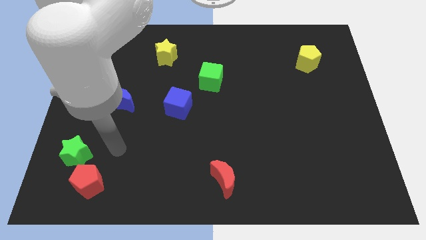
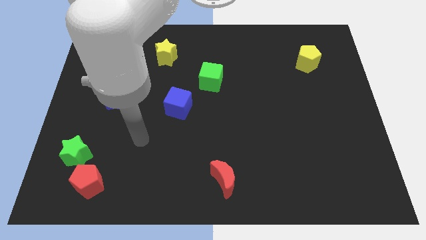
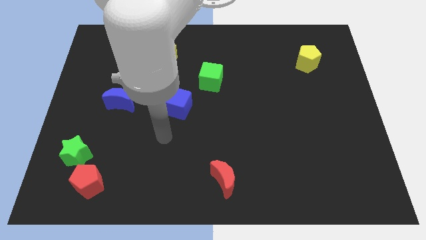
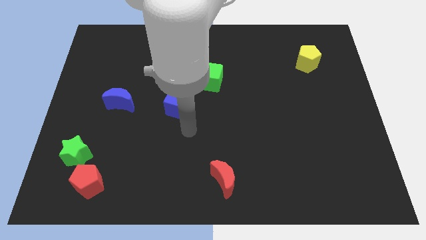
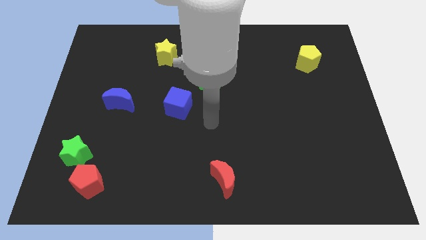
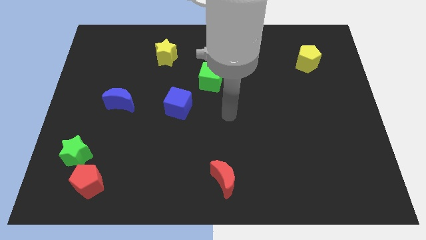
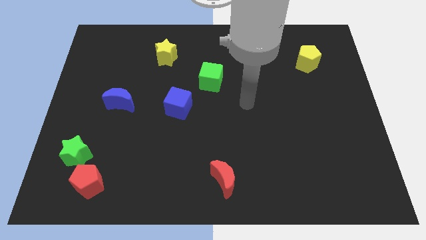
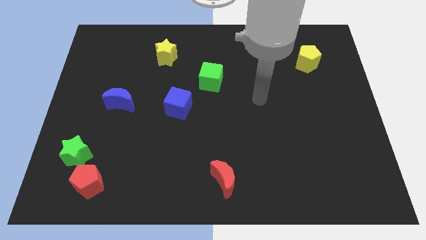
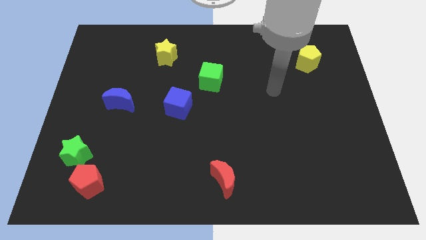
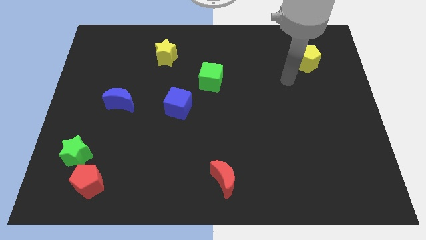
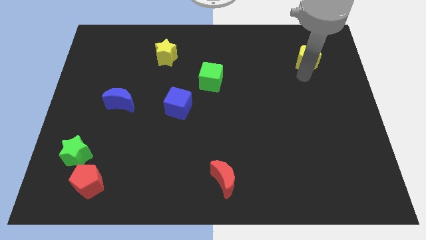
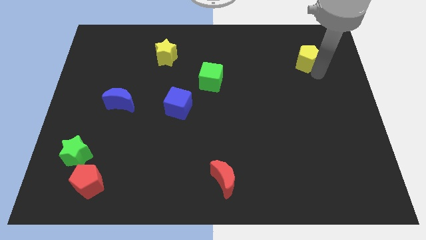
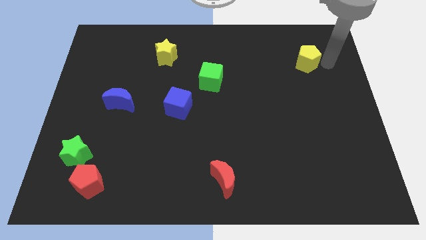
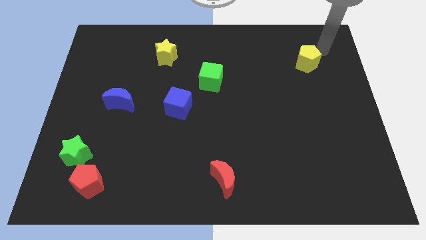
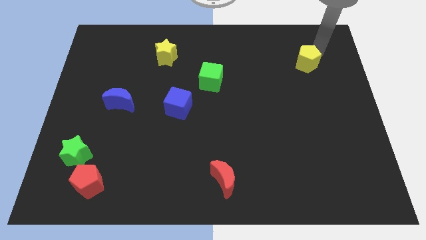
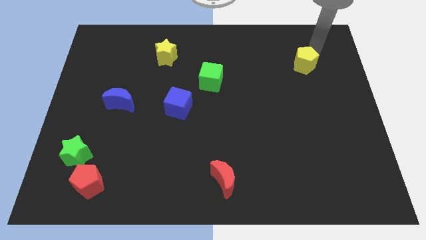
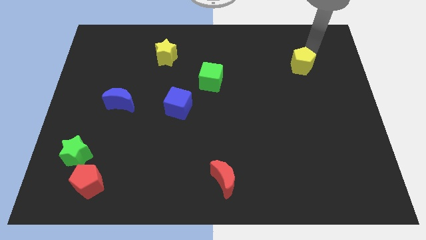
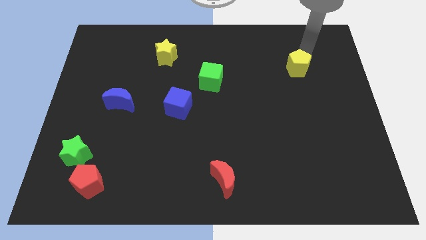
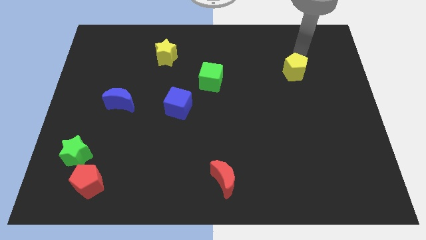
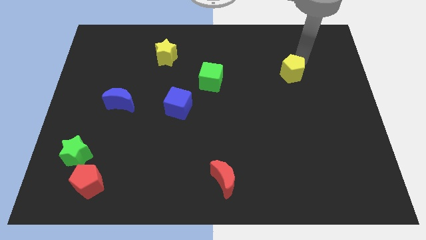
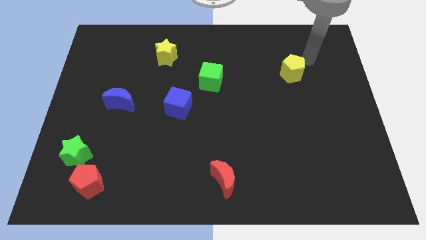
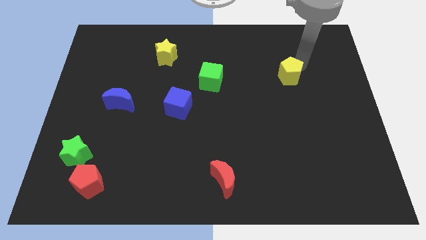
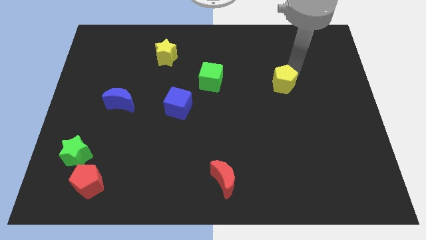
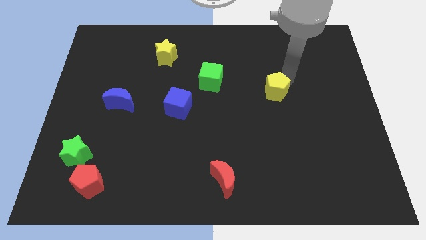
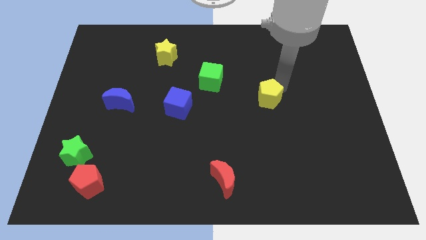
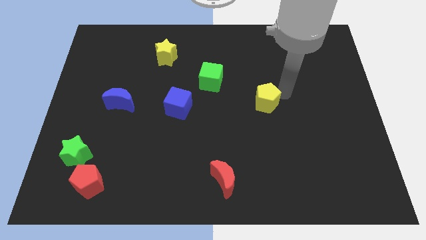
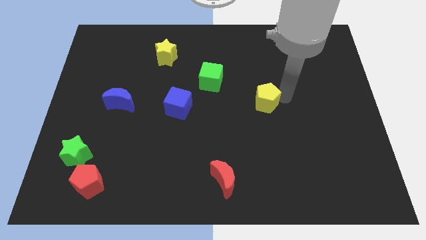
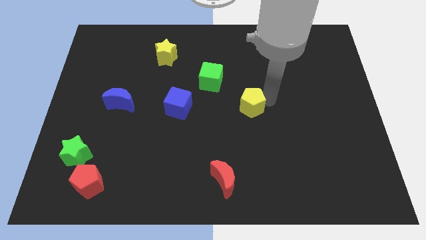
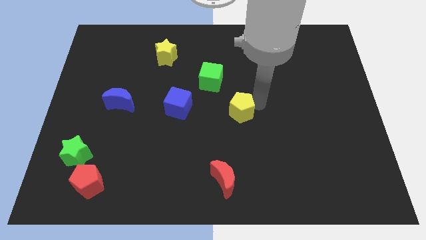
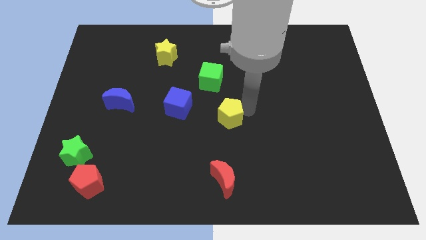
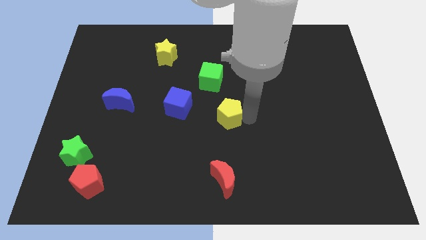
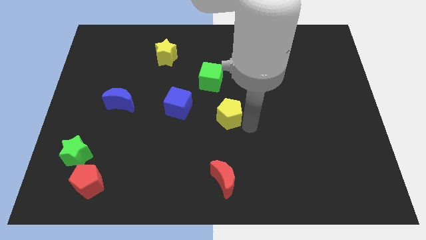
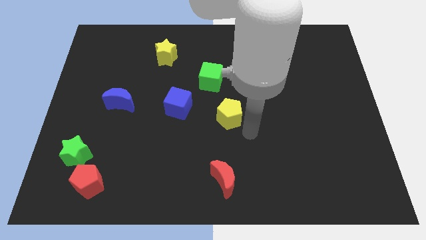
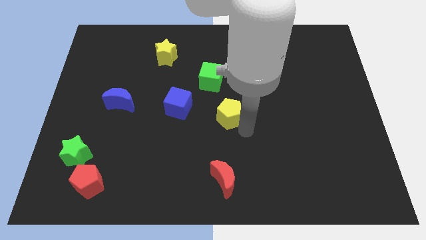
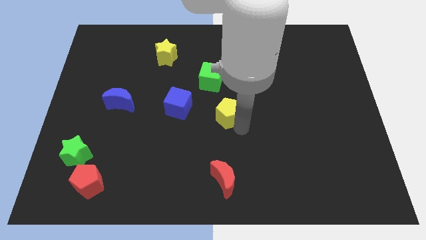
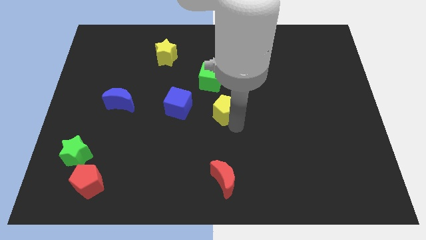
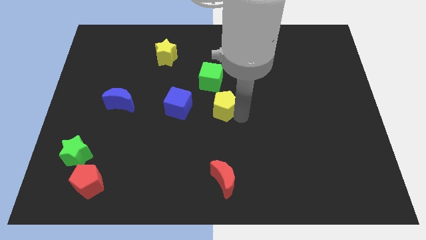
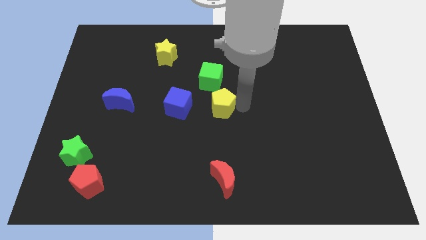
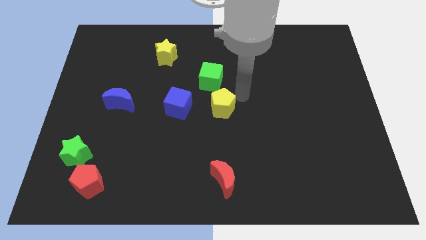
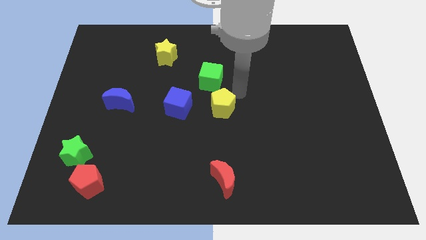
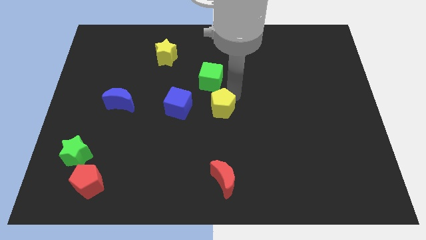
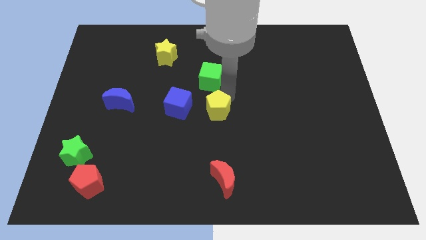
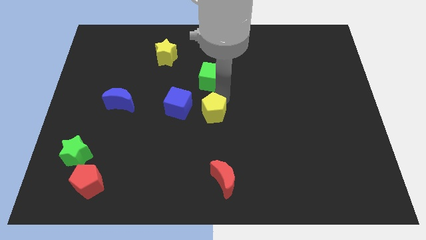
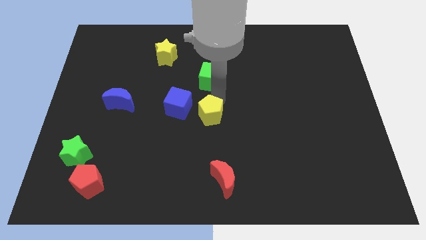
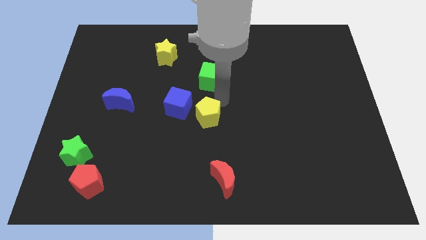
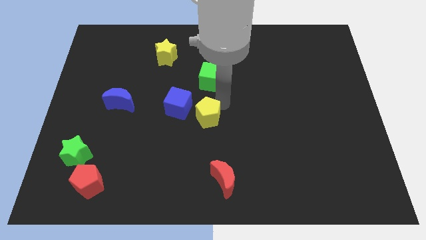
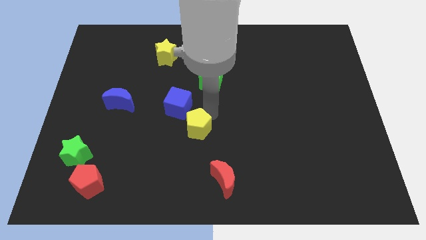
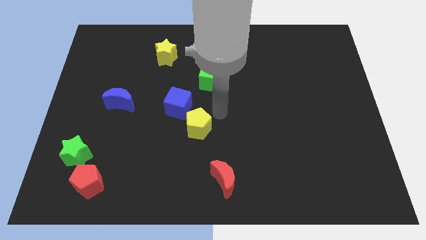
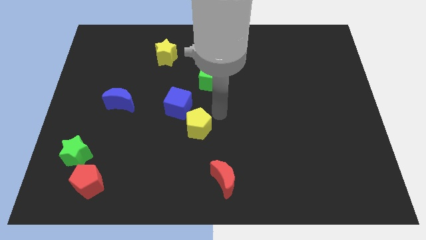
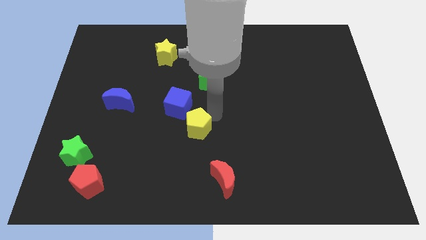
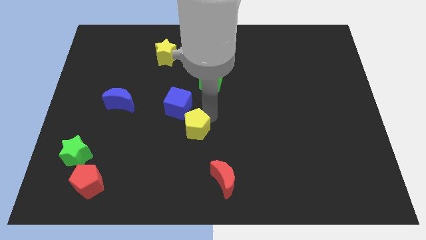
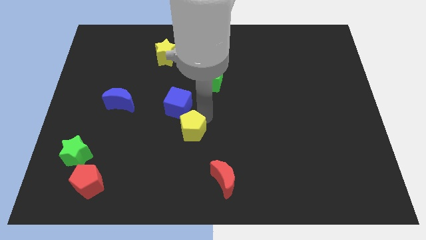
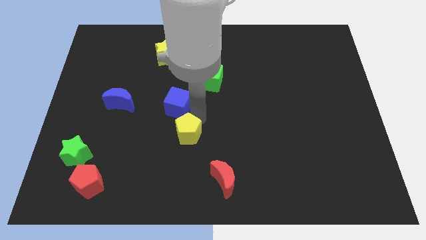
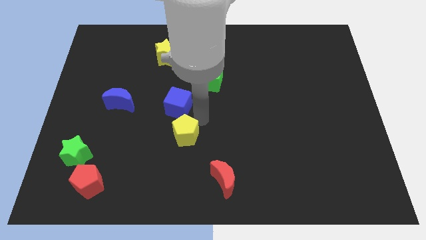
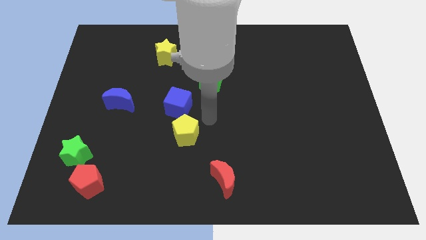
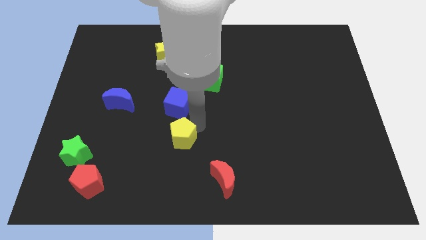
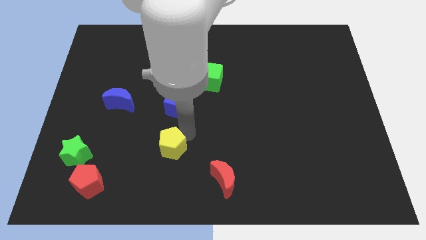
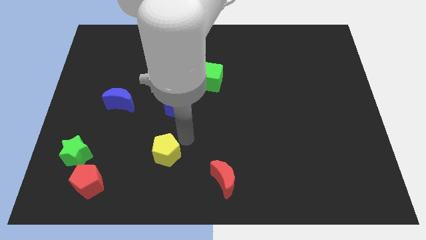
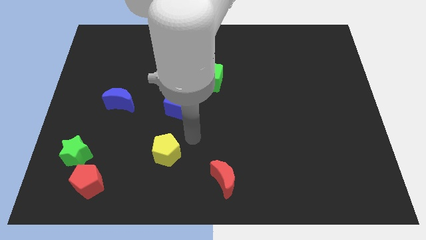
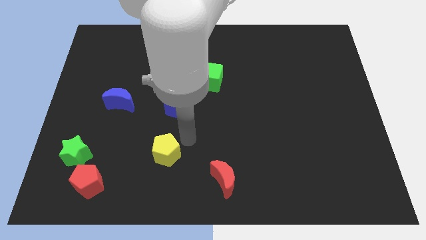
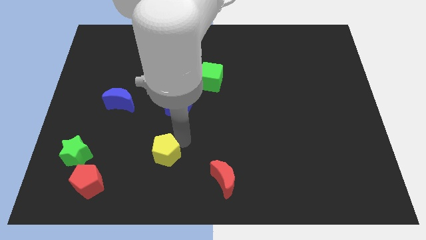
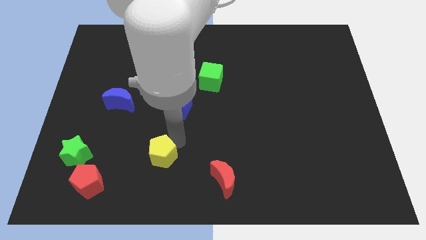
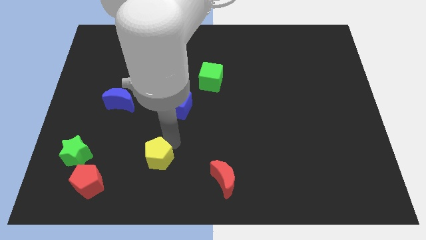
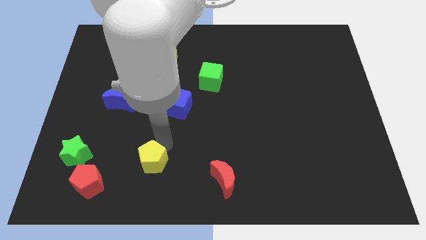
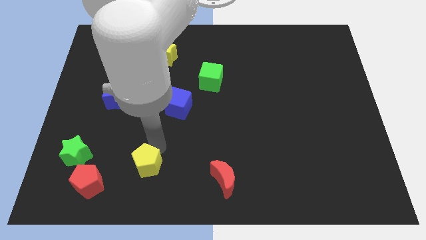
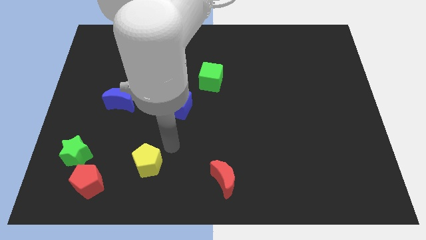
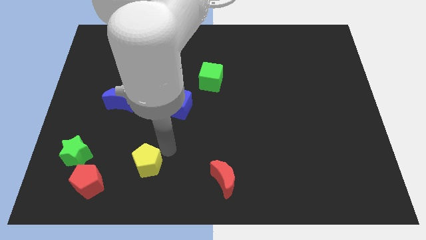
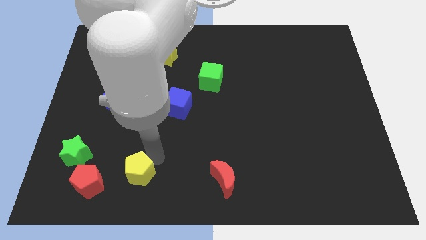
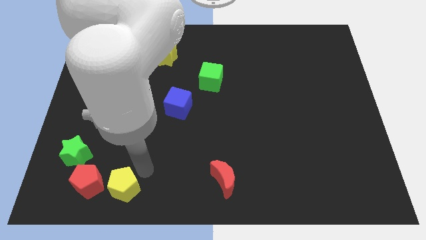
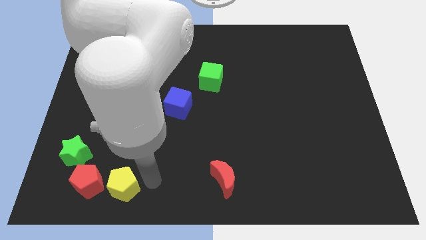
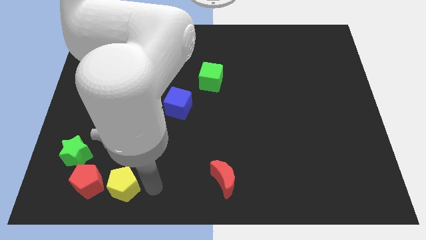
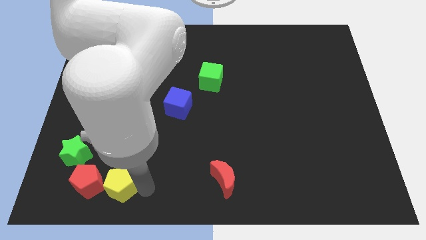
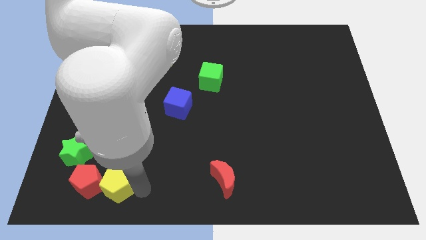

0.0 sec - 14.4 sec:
put the yellow pentagon next to the red pentagon
